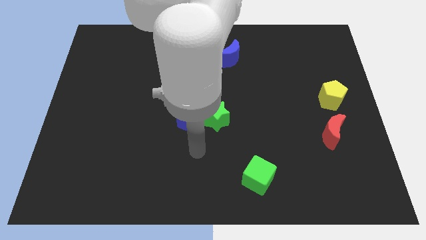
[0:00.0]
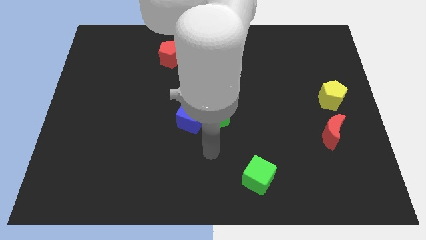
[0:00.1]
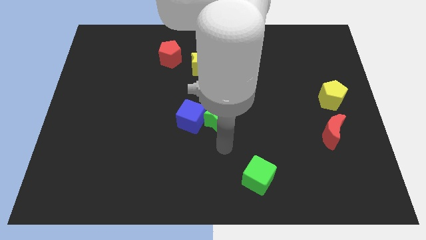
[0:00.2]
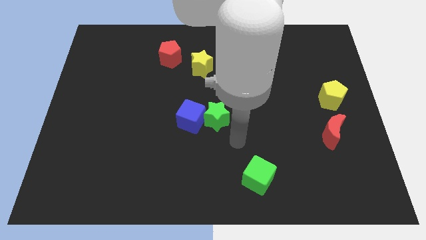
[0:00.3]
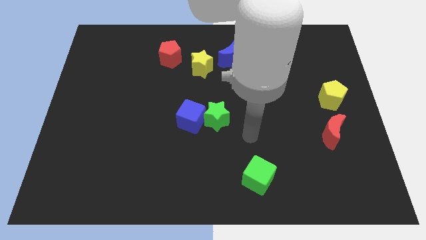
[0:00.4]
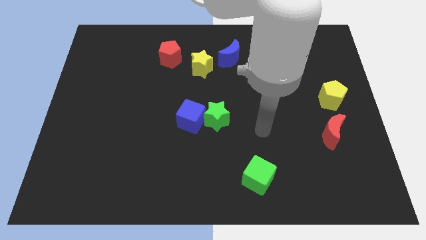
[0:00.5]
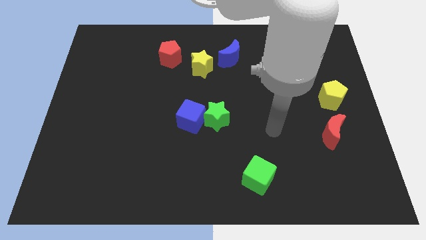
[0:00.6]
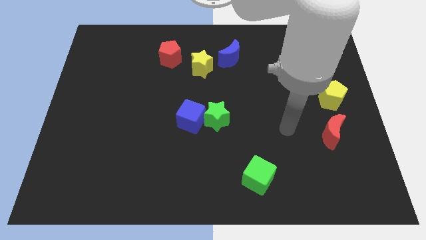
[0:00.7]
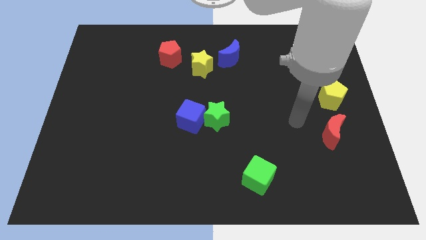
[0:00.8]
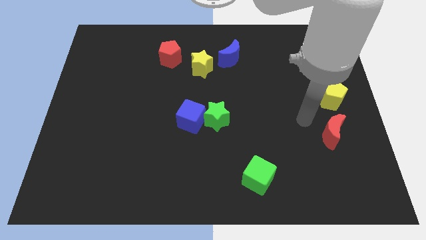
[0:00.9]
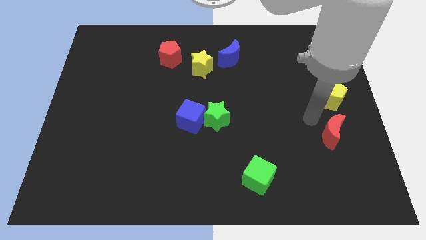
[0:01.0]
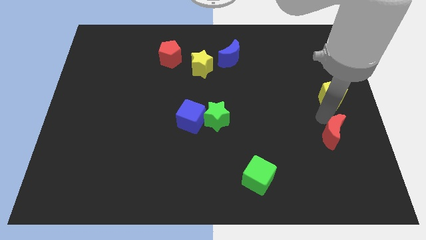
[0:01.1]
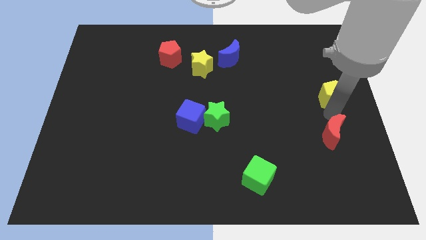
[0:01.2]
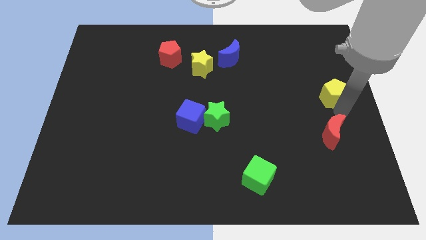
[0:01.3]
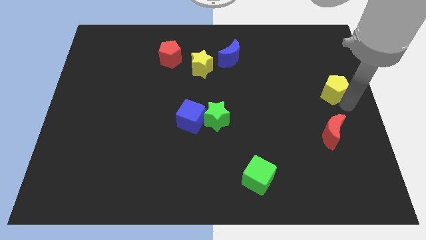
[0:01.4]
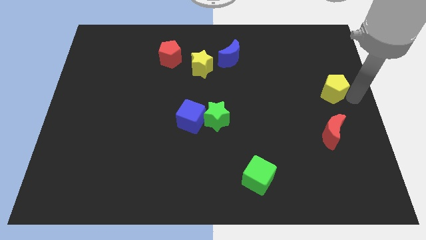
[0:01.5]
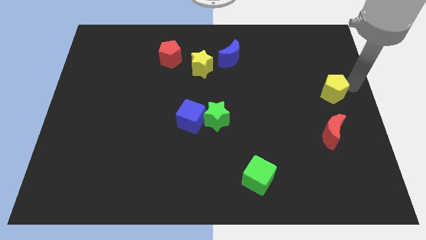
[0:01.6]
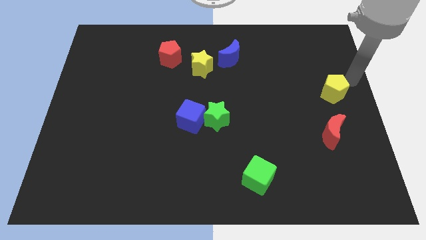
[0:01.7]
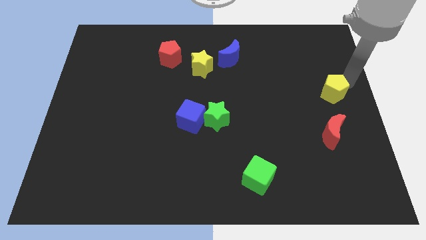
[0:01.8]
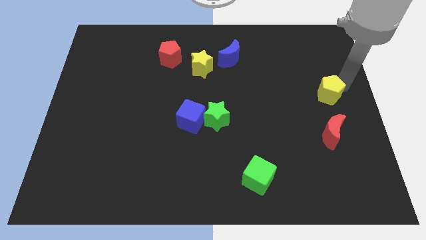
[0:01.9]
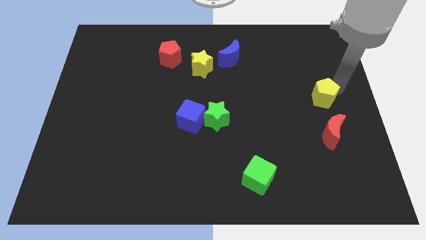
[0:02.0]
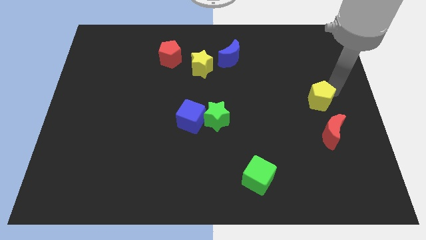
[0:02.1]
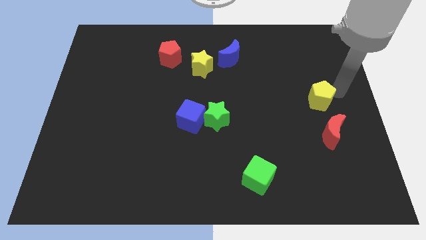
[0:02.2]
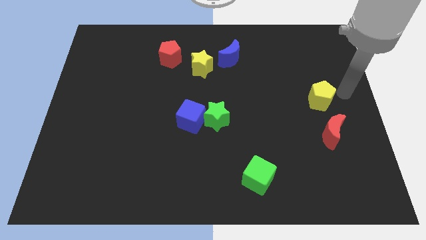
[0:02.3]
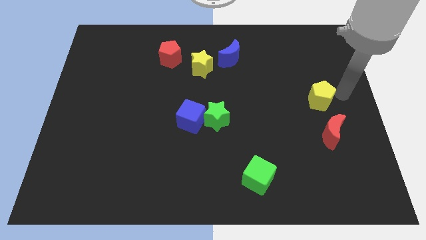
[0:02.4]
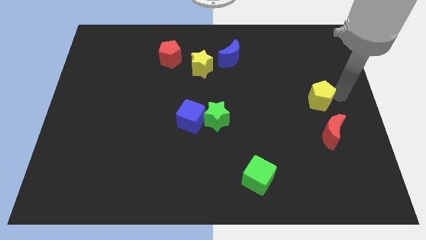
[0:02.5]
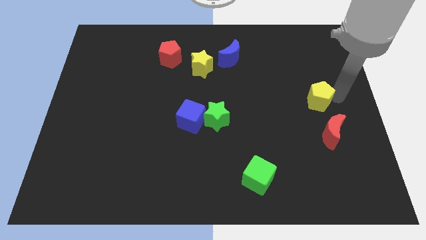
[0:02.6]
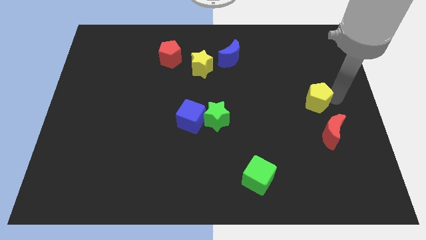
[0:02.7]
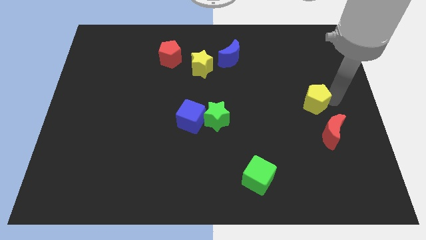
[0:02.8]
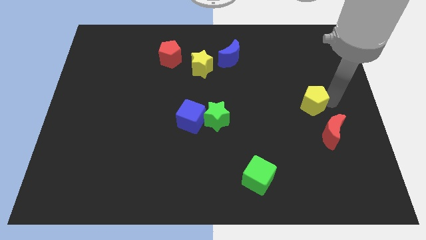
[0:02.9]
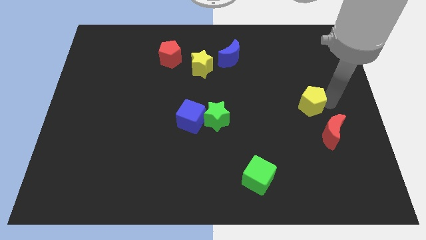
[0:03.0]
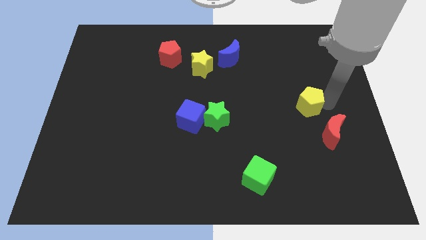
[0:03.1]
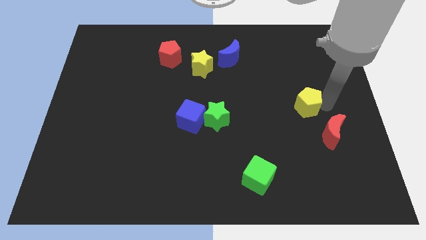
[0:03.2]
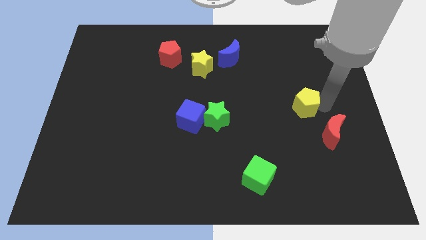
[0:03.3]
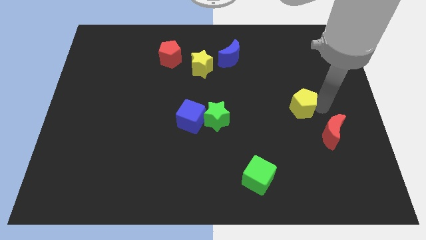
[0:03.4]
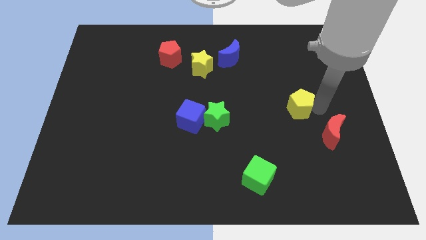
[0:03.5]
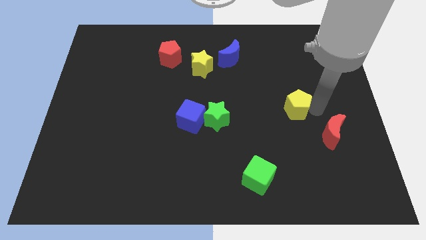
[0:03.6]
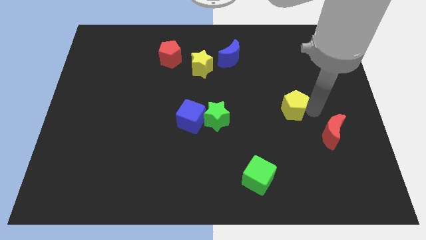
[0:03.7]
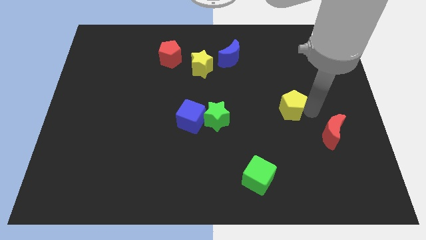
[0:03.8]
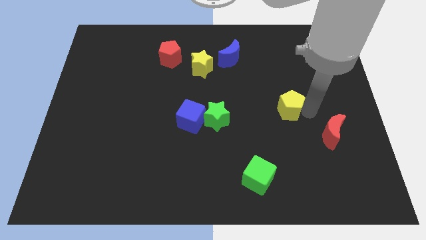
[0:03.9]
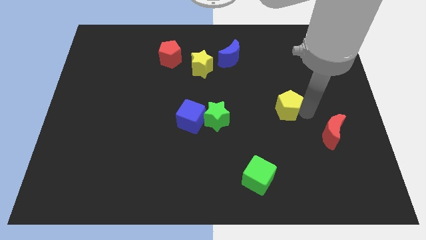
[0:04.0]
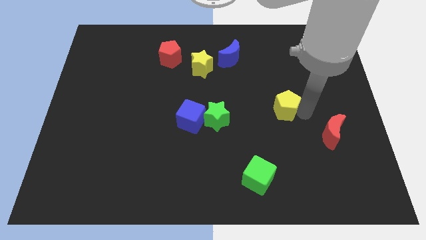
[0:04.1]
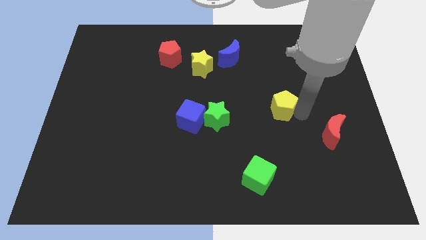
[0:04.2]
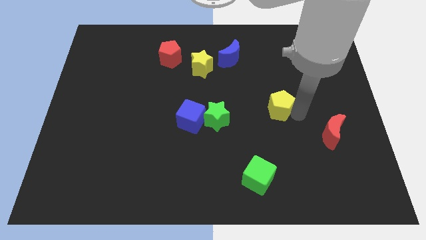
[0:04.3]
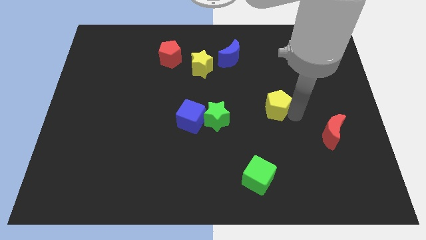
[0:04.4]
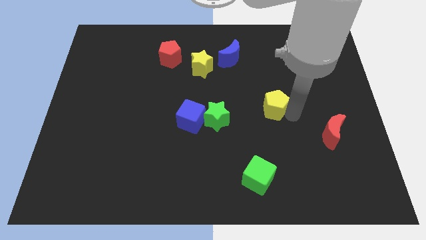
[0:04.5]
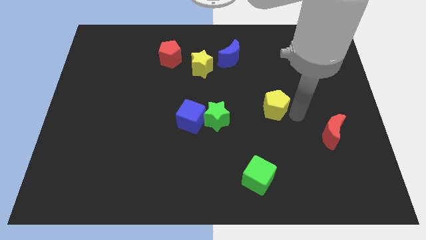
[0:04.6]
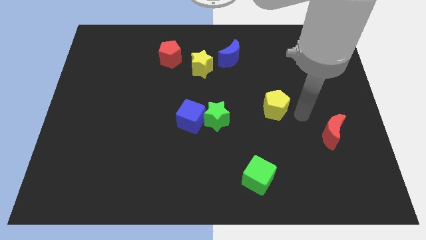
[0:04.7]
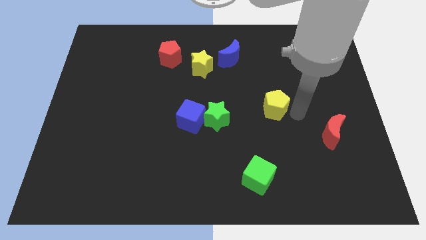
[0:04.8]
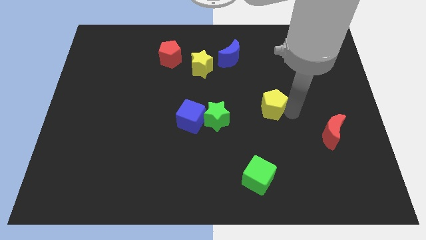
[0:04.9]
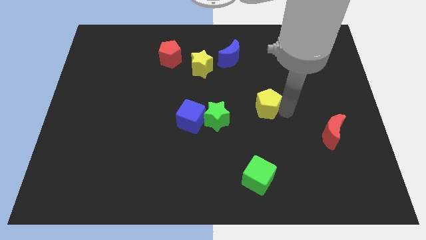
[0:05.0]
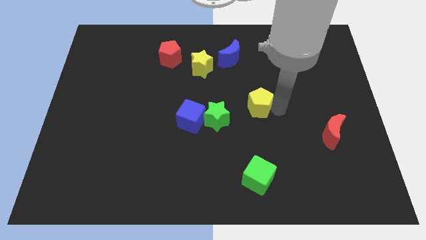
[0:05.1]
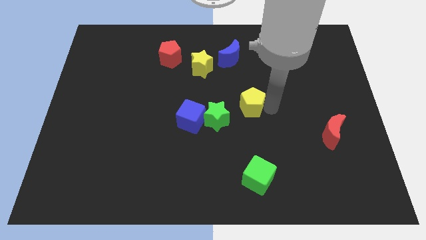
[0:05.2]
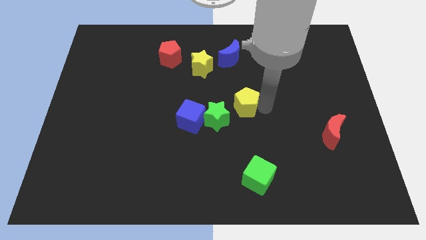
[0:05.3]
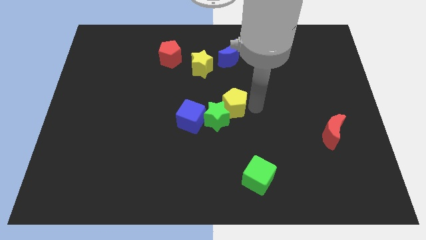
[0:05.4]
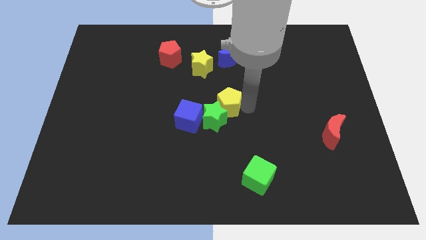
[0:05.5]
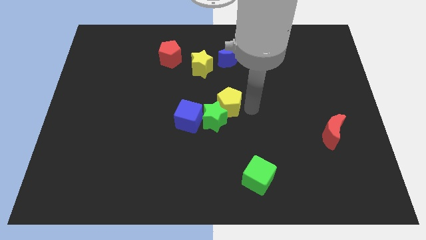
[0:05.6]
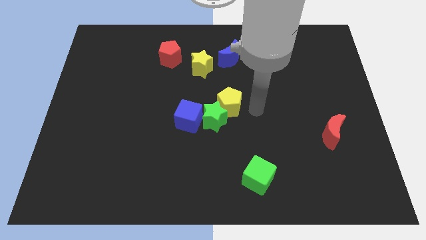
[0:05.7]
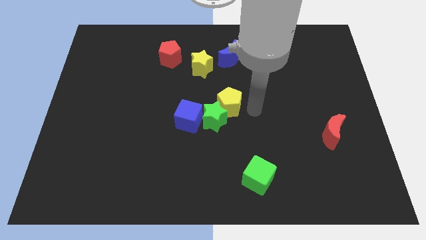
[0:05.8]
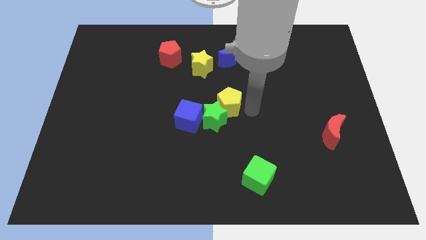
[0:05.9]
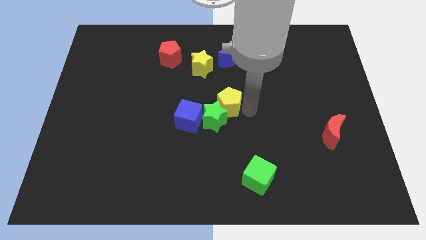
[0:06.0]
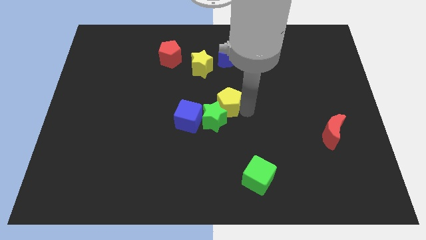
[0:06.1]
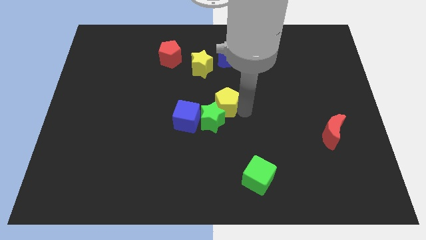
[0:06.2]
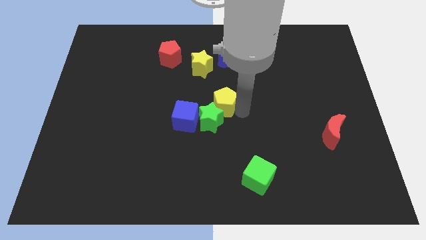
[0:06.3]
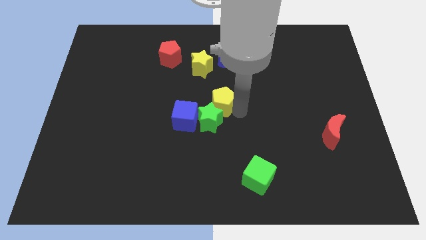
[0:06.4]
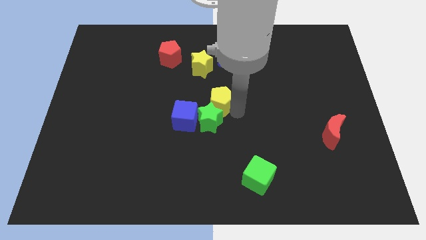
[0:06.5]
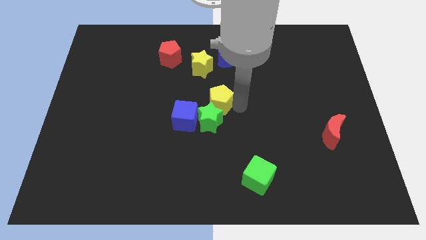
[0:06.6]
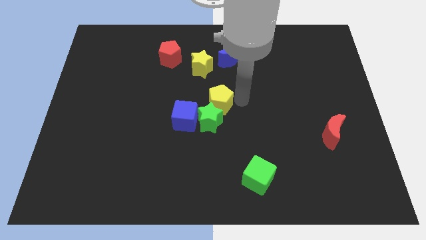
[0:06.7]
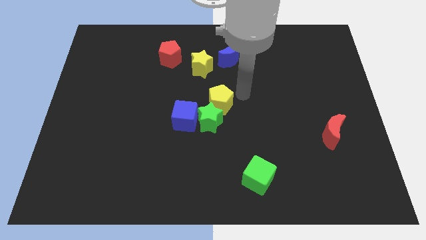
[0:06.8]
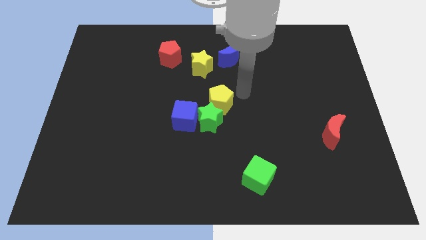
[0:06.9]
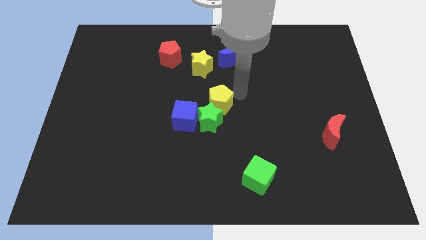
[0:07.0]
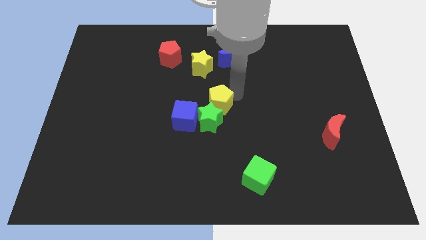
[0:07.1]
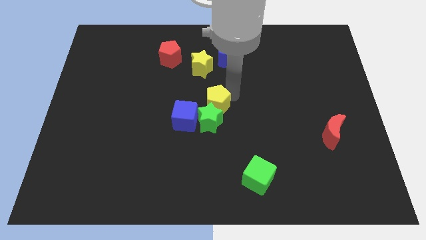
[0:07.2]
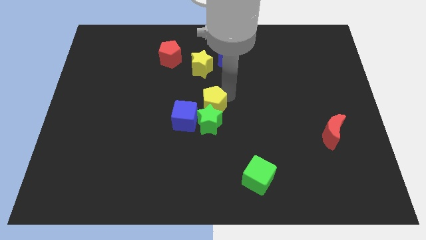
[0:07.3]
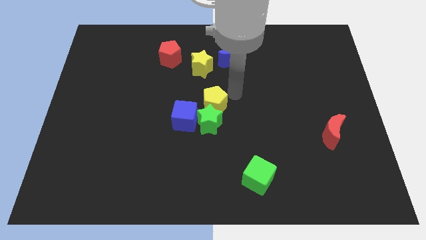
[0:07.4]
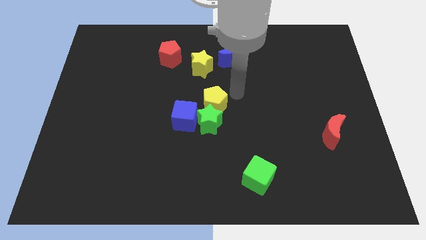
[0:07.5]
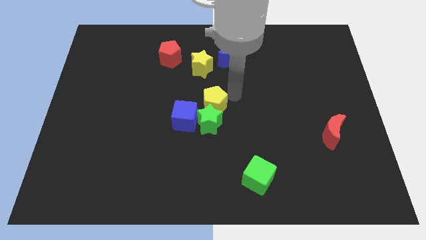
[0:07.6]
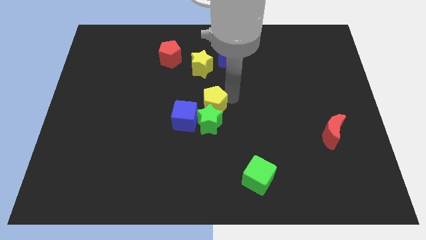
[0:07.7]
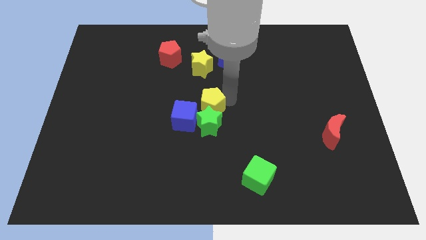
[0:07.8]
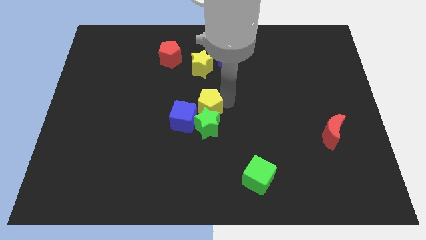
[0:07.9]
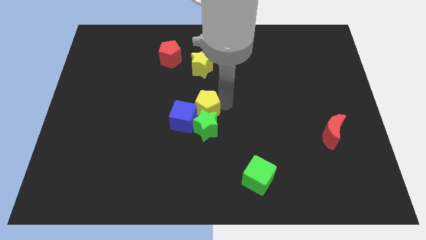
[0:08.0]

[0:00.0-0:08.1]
push the yellow pentagon towards the blue cube
